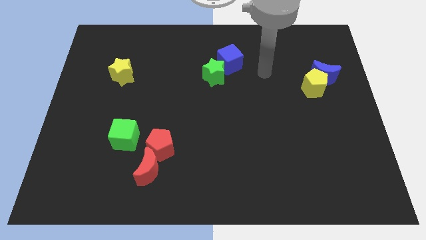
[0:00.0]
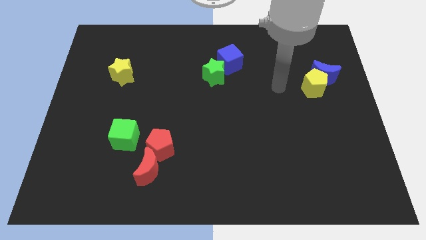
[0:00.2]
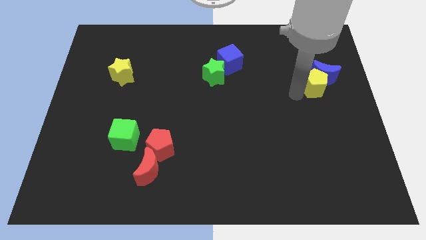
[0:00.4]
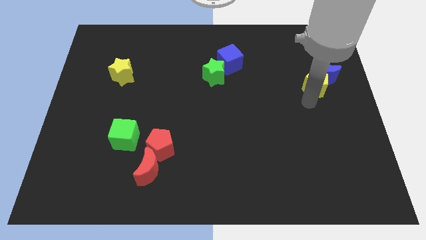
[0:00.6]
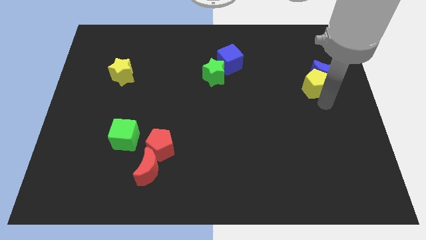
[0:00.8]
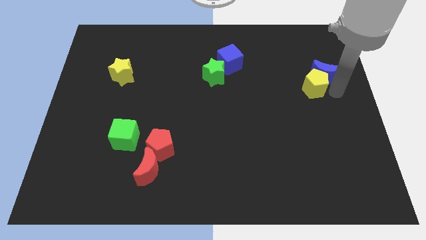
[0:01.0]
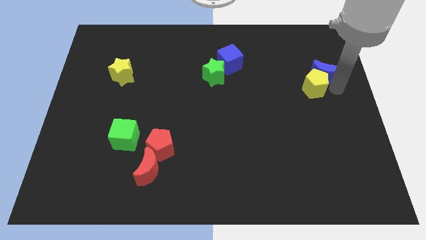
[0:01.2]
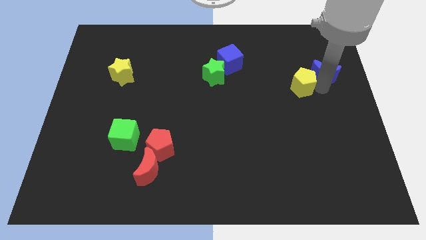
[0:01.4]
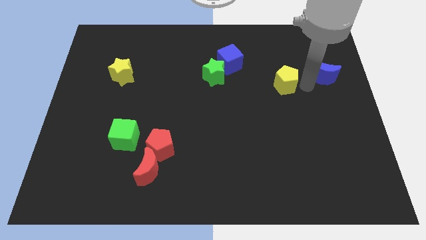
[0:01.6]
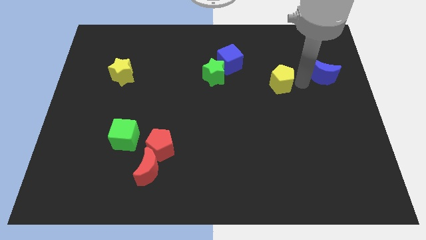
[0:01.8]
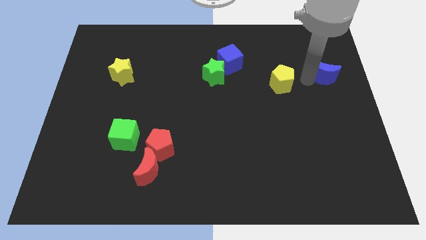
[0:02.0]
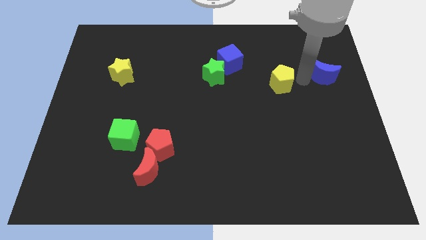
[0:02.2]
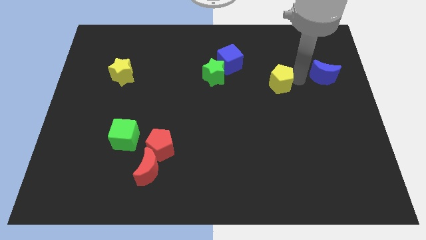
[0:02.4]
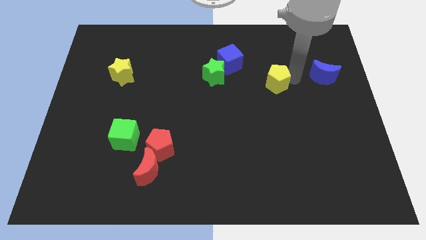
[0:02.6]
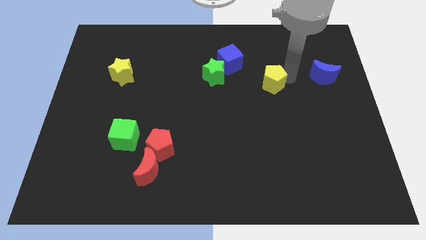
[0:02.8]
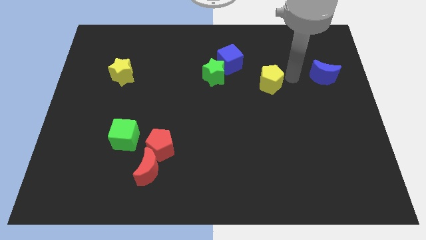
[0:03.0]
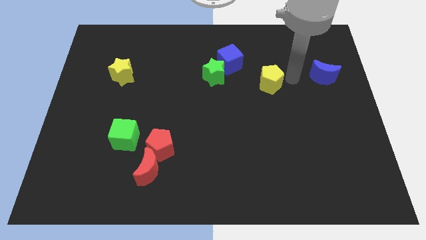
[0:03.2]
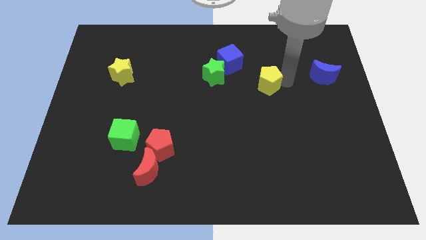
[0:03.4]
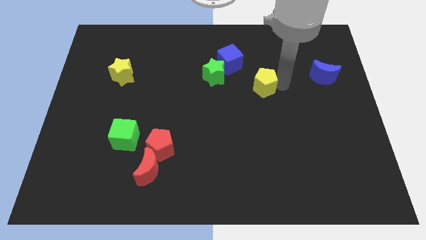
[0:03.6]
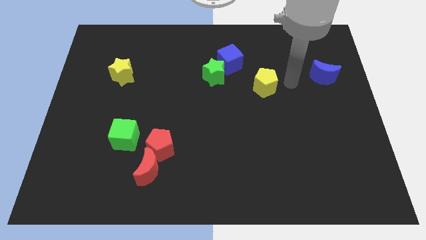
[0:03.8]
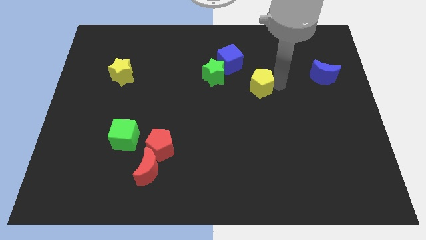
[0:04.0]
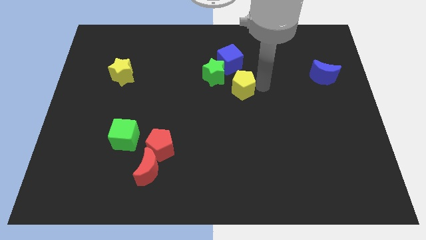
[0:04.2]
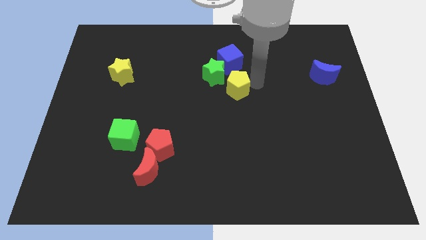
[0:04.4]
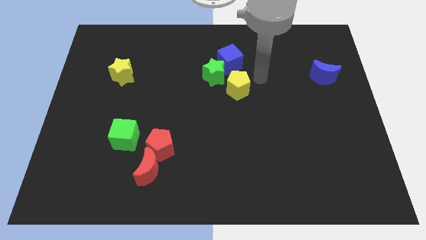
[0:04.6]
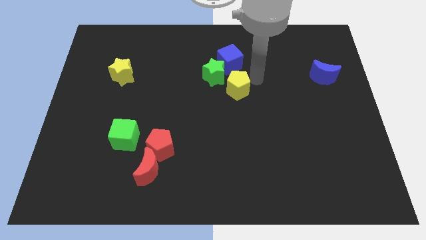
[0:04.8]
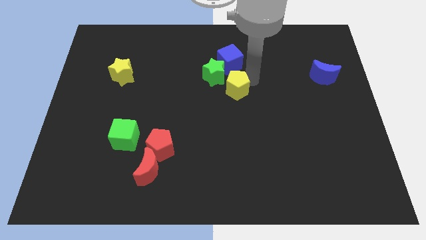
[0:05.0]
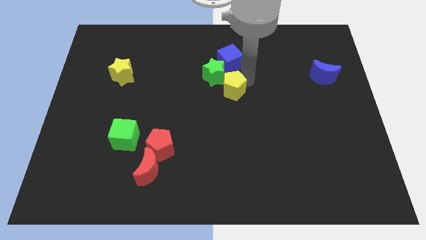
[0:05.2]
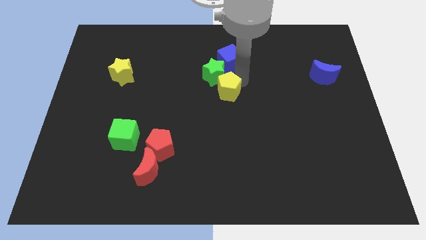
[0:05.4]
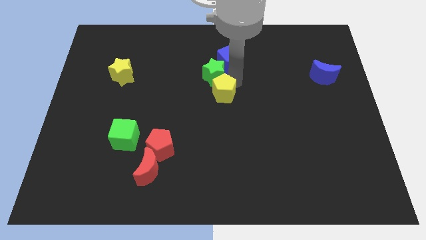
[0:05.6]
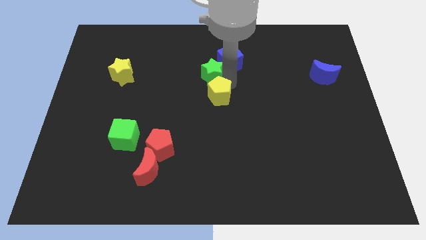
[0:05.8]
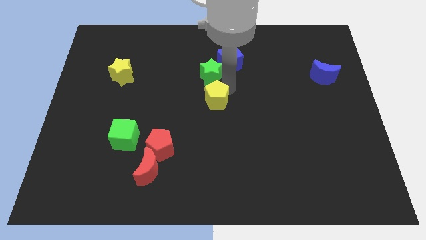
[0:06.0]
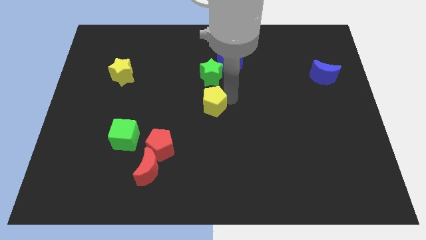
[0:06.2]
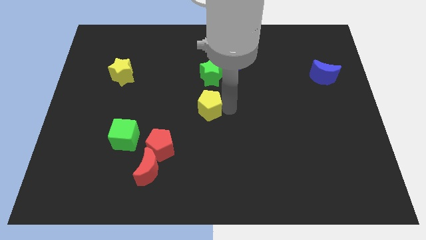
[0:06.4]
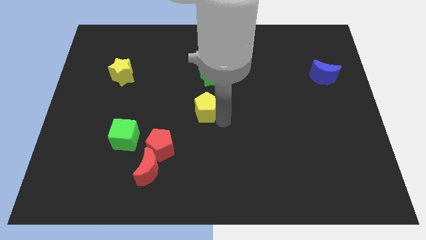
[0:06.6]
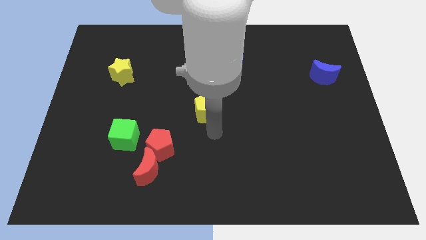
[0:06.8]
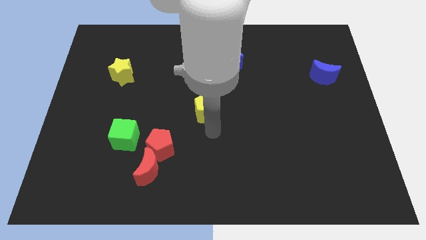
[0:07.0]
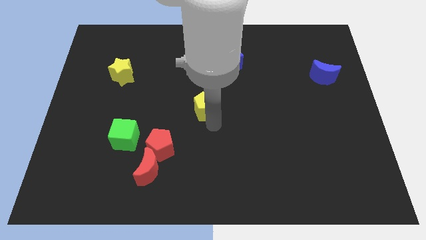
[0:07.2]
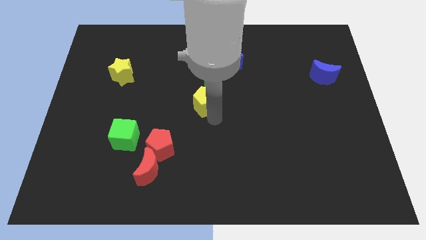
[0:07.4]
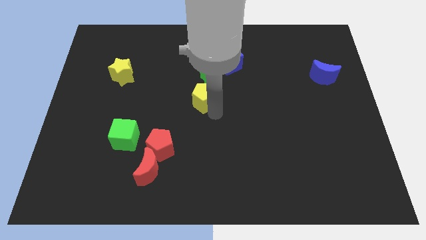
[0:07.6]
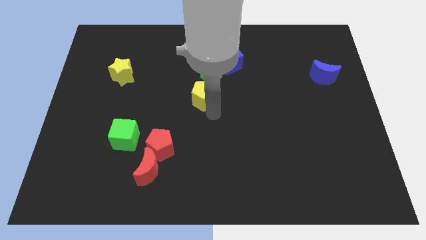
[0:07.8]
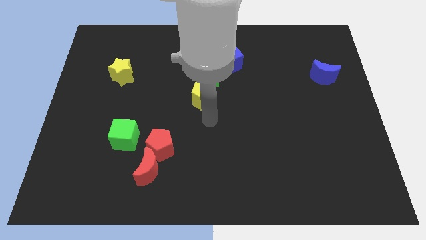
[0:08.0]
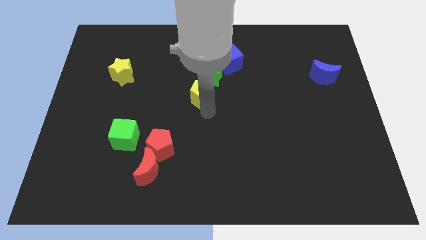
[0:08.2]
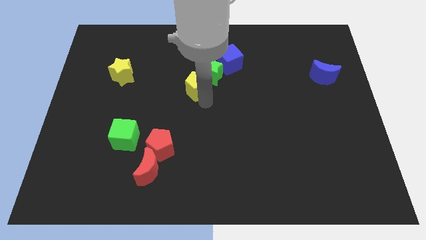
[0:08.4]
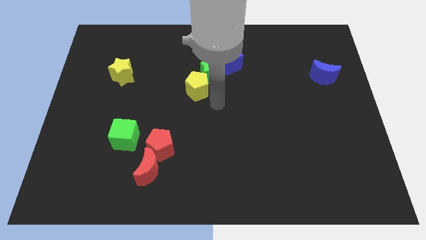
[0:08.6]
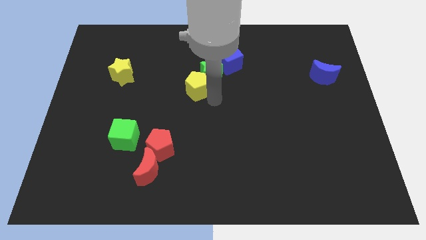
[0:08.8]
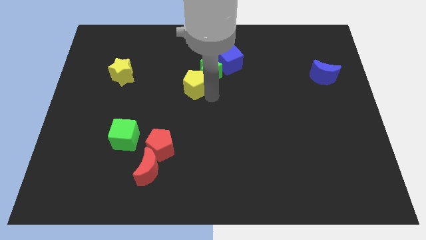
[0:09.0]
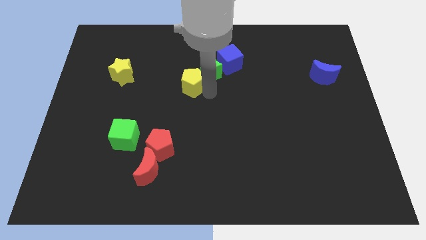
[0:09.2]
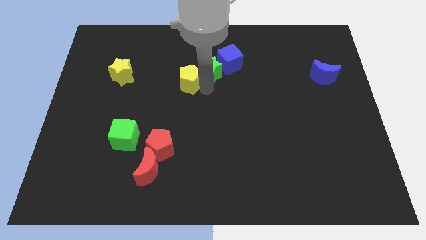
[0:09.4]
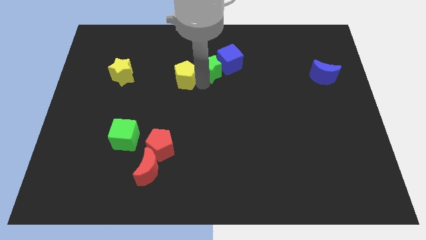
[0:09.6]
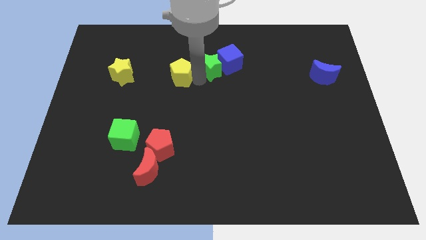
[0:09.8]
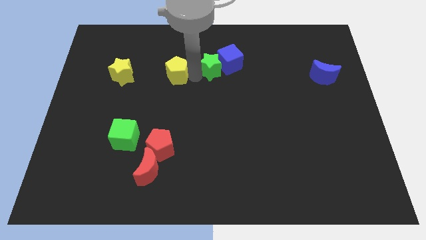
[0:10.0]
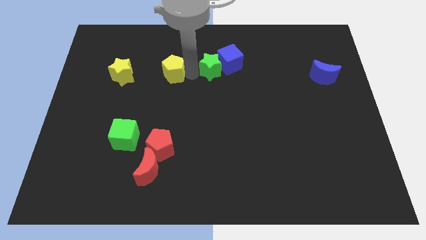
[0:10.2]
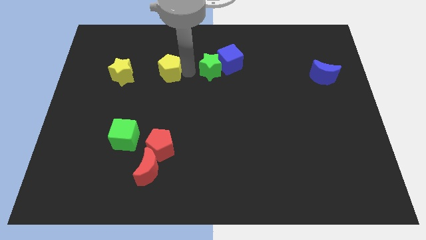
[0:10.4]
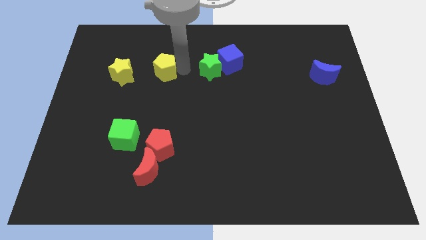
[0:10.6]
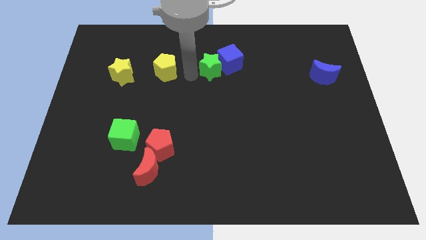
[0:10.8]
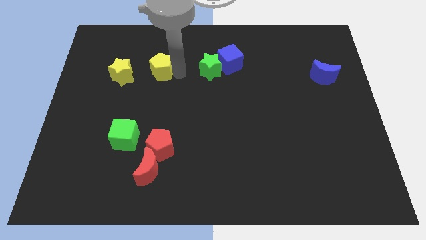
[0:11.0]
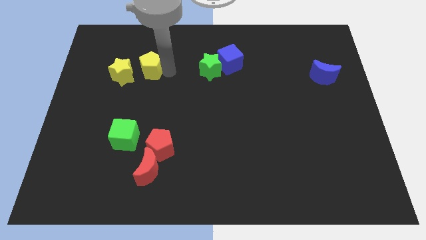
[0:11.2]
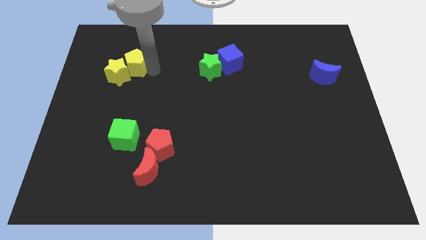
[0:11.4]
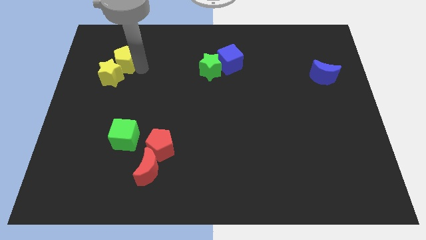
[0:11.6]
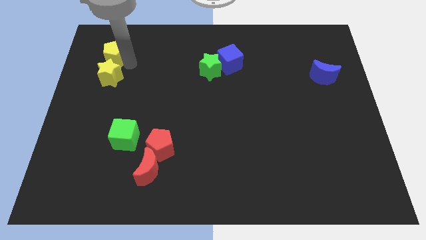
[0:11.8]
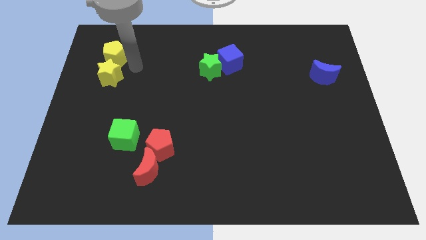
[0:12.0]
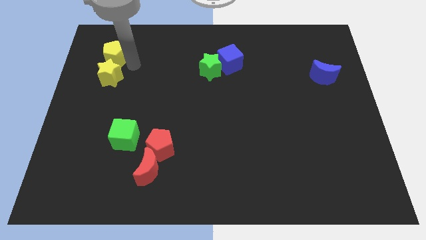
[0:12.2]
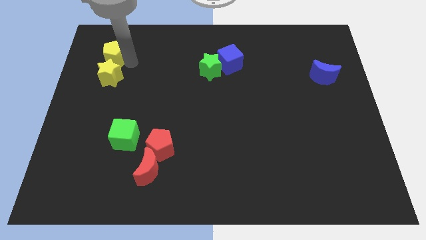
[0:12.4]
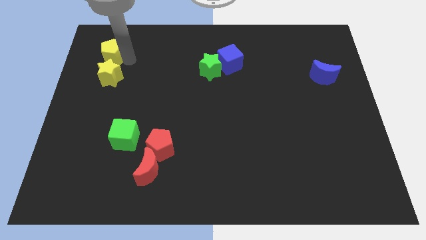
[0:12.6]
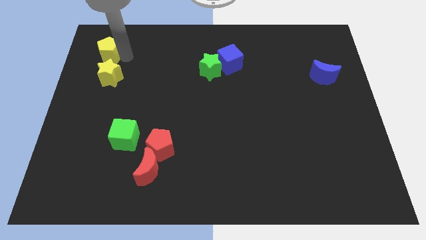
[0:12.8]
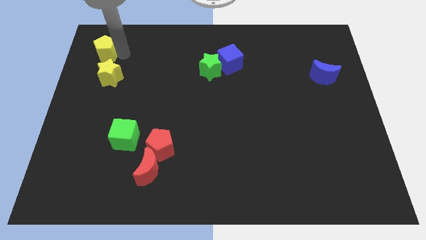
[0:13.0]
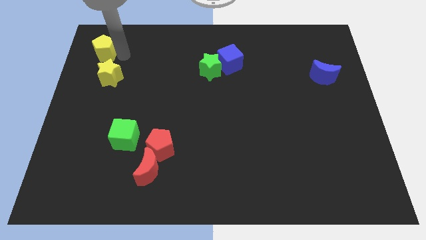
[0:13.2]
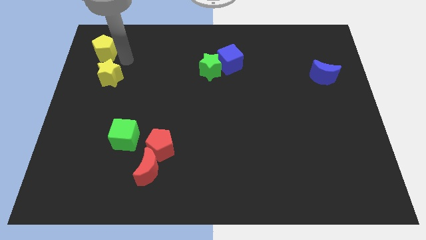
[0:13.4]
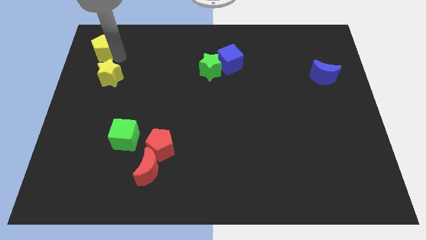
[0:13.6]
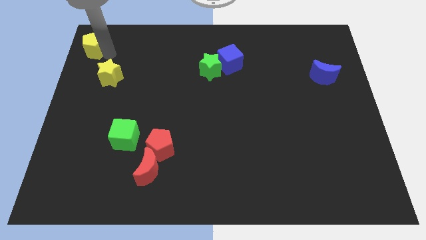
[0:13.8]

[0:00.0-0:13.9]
put the yellow pentagon to the top left
